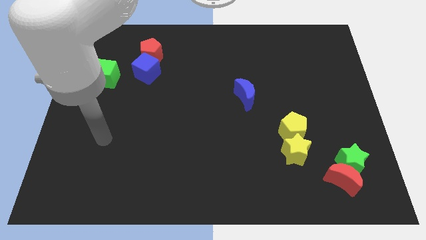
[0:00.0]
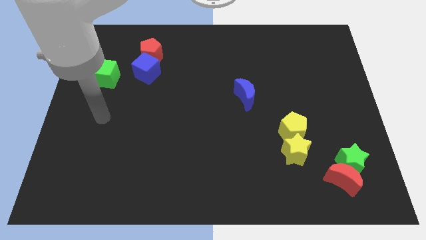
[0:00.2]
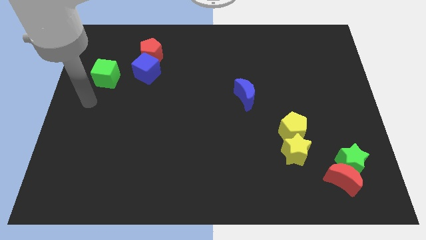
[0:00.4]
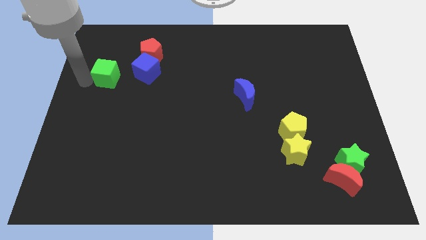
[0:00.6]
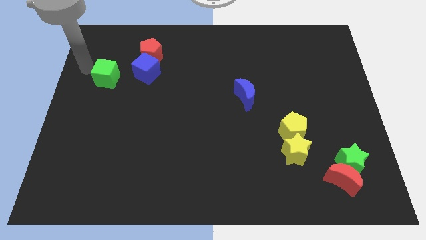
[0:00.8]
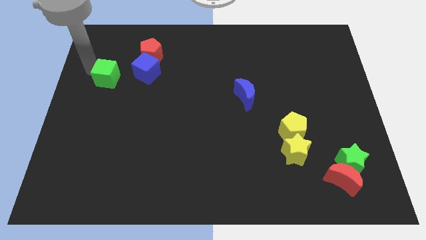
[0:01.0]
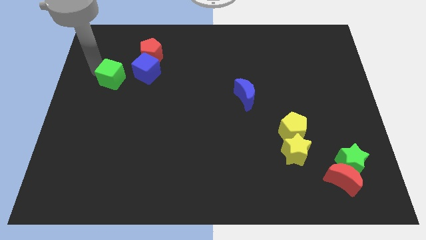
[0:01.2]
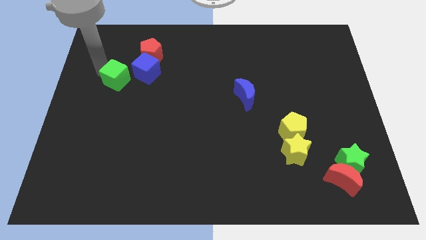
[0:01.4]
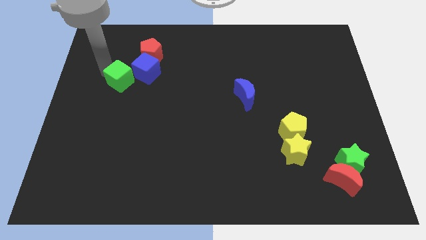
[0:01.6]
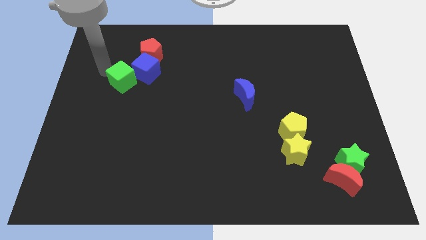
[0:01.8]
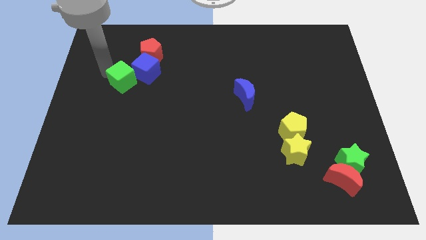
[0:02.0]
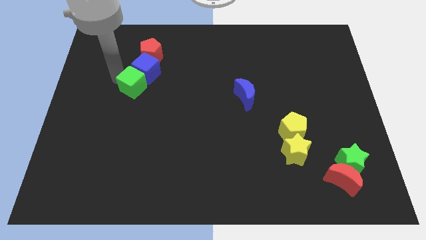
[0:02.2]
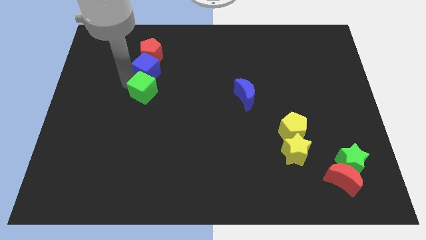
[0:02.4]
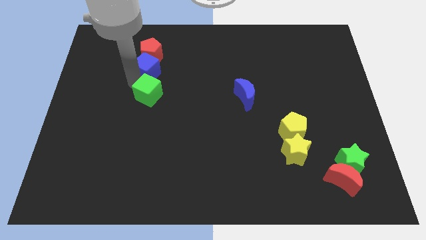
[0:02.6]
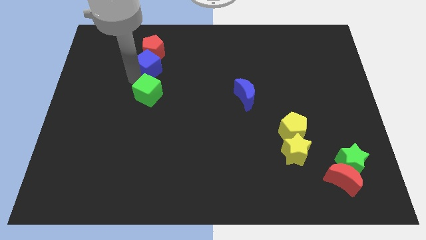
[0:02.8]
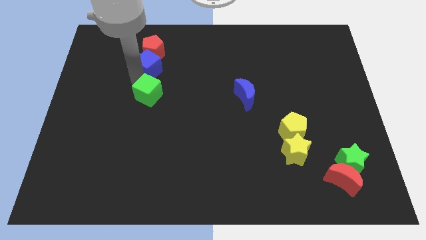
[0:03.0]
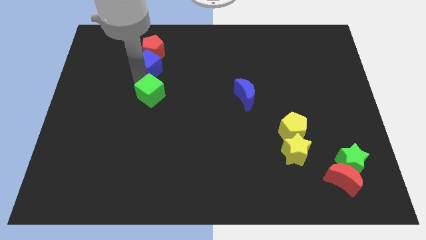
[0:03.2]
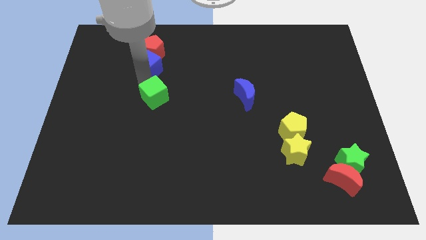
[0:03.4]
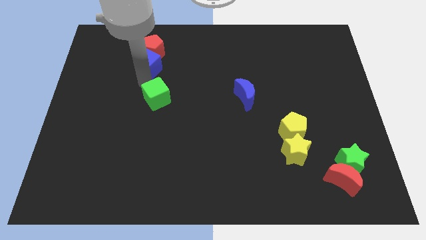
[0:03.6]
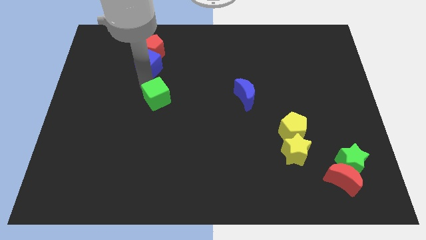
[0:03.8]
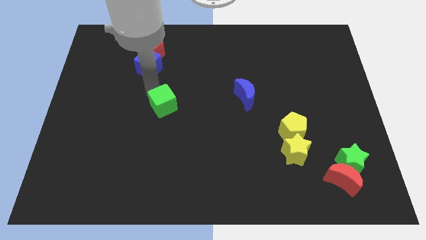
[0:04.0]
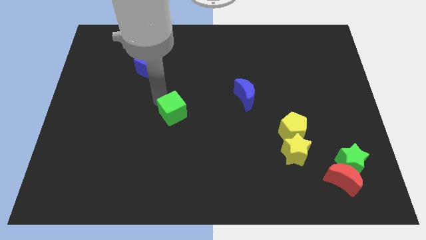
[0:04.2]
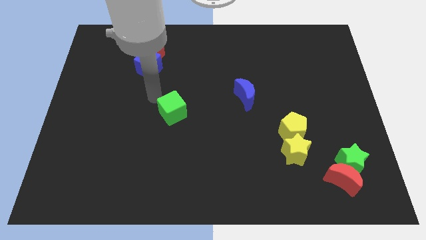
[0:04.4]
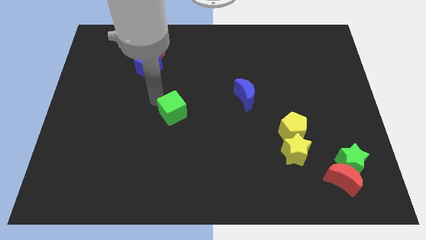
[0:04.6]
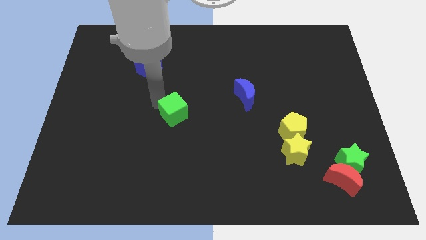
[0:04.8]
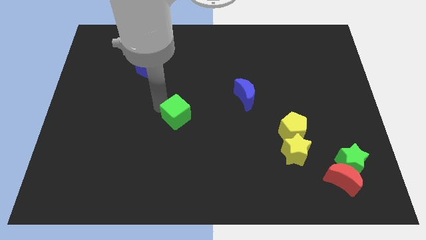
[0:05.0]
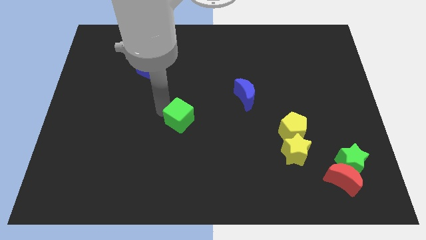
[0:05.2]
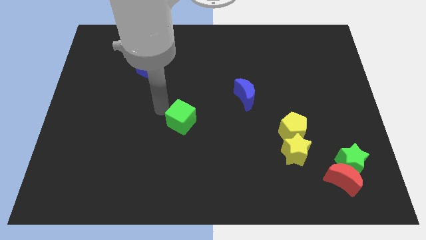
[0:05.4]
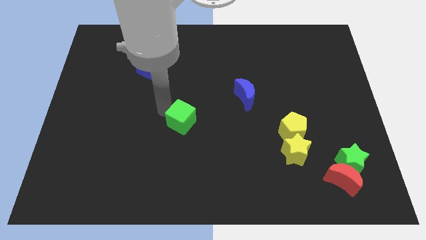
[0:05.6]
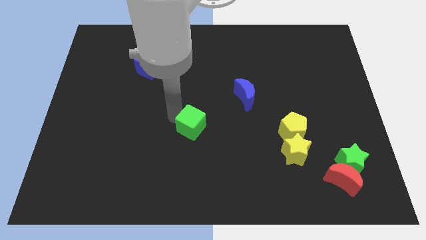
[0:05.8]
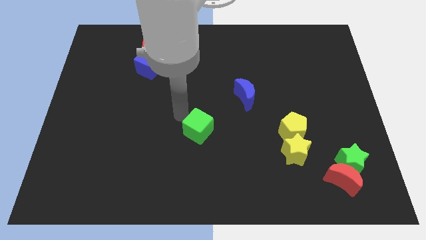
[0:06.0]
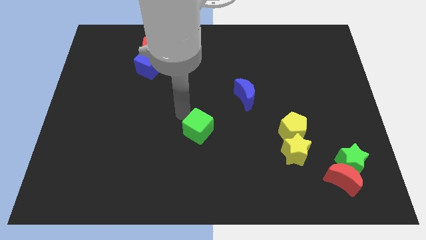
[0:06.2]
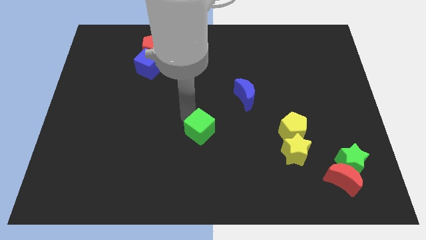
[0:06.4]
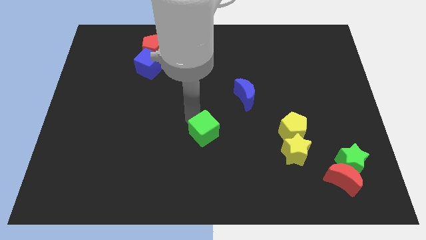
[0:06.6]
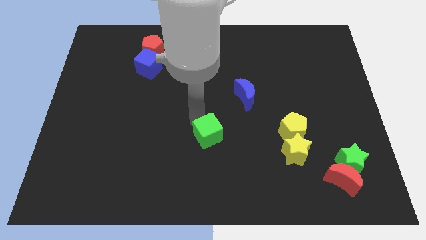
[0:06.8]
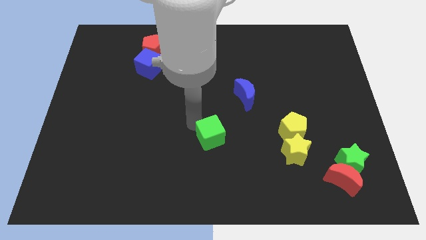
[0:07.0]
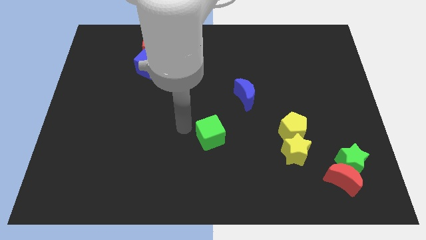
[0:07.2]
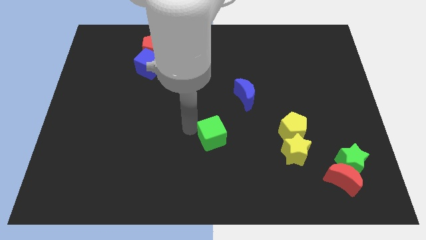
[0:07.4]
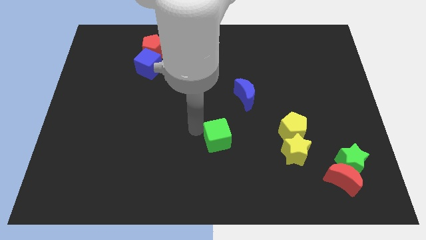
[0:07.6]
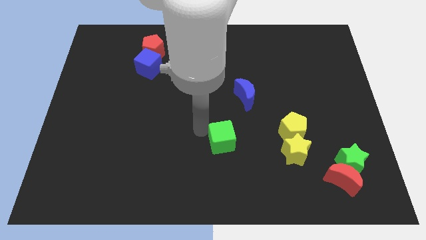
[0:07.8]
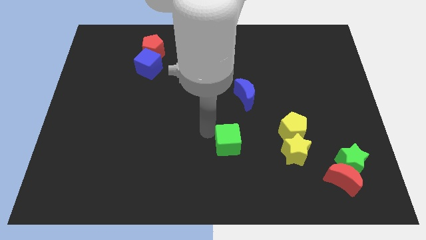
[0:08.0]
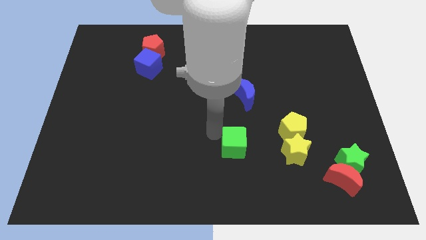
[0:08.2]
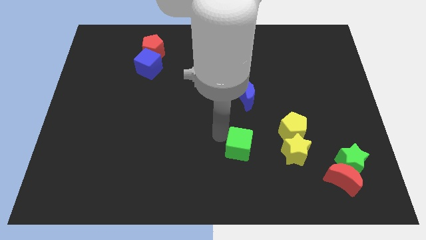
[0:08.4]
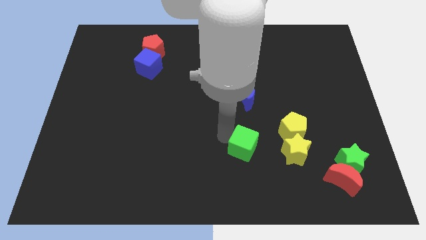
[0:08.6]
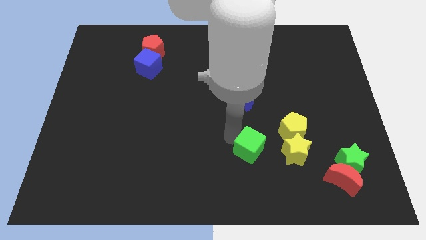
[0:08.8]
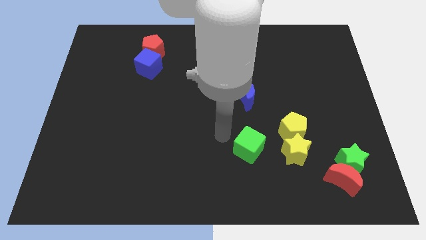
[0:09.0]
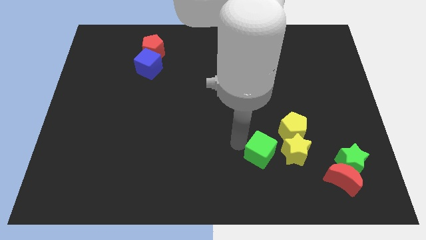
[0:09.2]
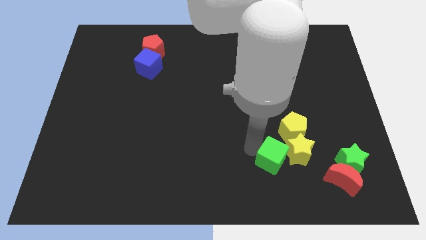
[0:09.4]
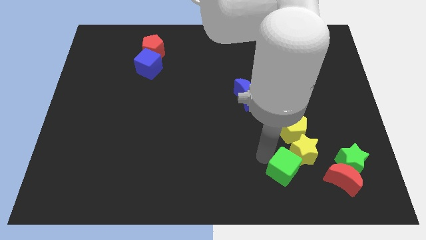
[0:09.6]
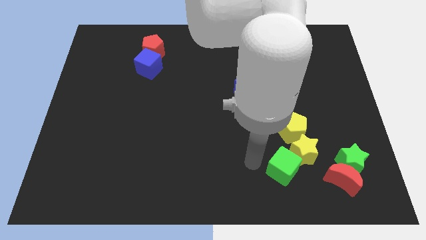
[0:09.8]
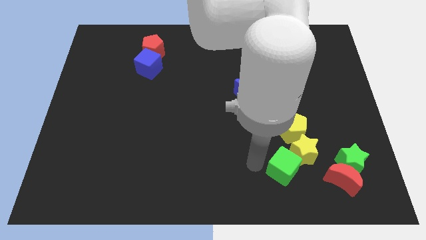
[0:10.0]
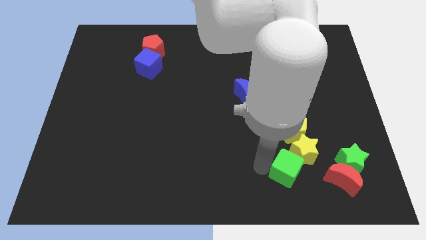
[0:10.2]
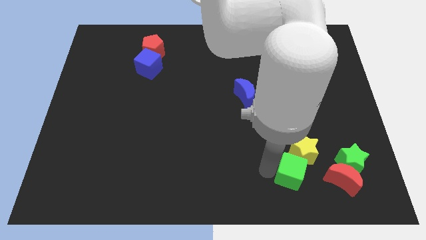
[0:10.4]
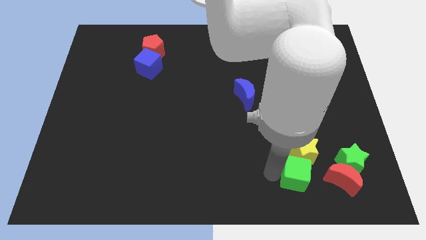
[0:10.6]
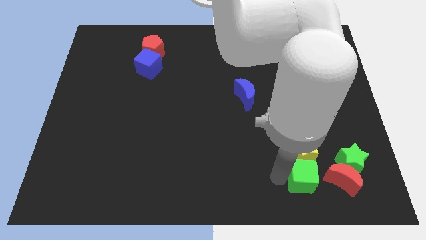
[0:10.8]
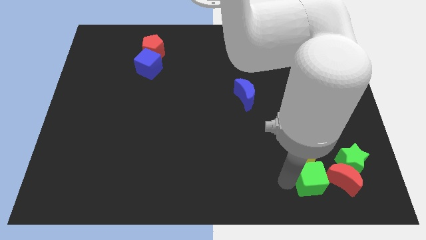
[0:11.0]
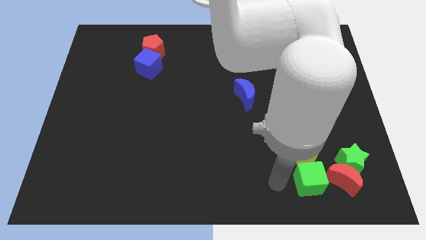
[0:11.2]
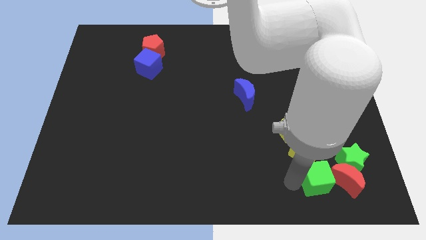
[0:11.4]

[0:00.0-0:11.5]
move the green cube close to the red moon

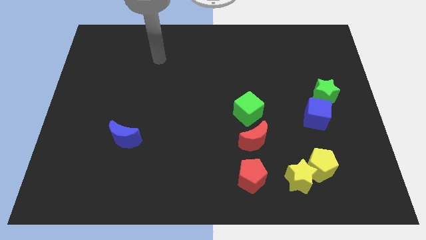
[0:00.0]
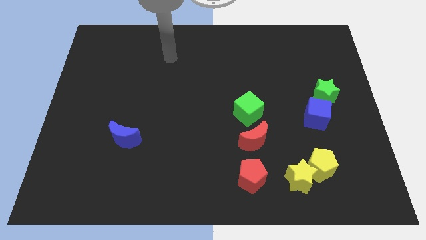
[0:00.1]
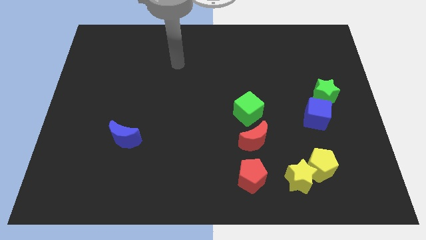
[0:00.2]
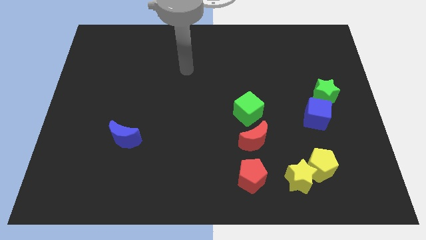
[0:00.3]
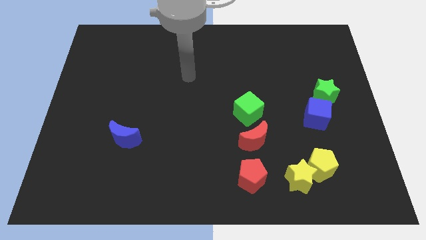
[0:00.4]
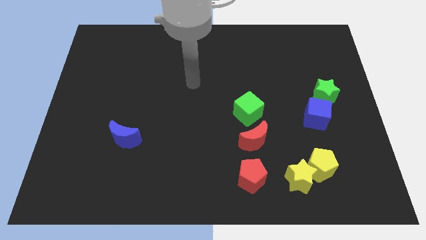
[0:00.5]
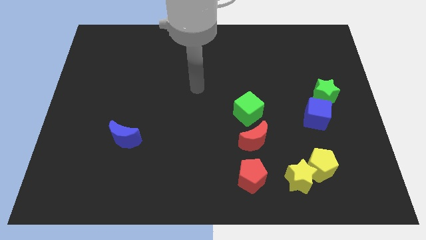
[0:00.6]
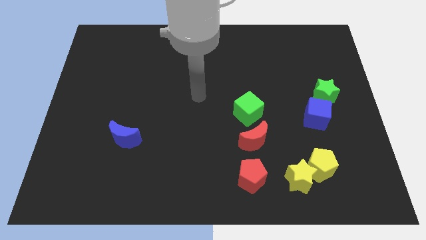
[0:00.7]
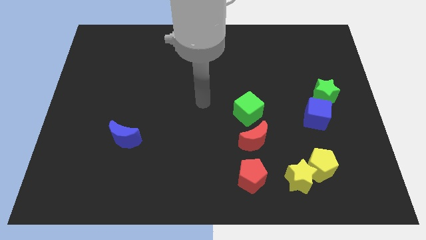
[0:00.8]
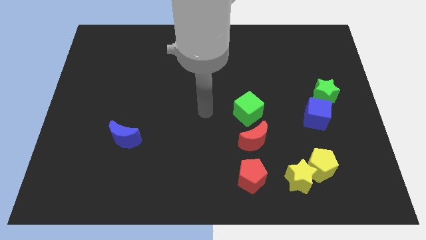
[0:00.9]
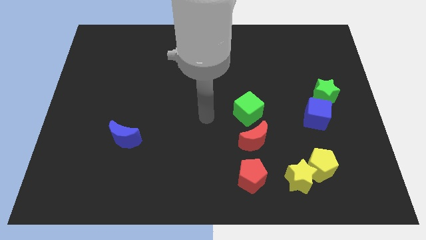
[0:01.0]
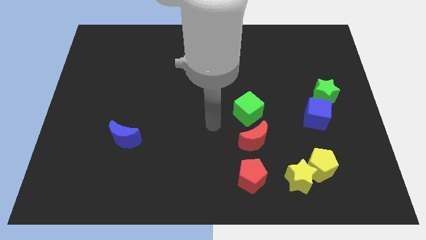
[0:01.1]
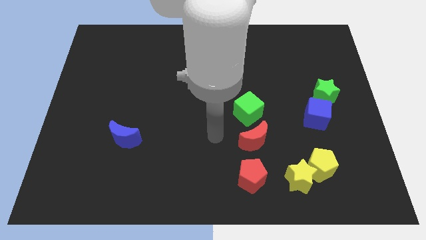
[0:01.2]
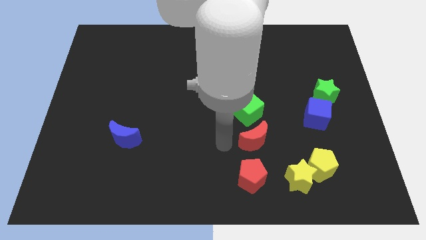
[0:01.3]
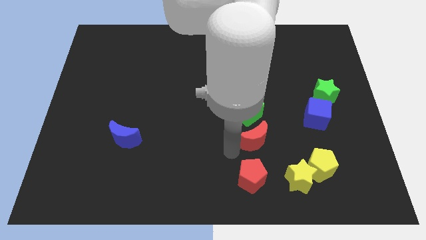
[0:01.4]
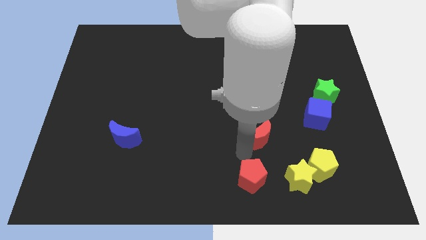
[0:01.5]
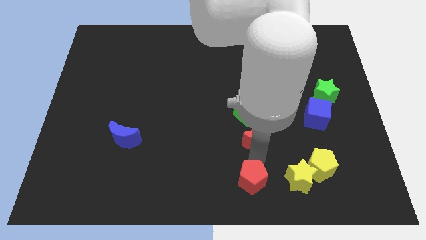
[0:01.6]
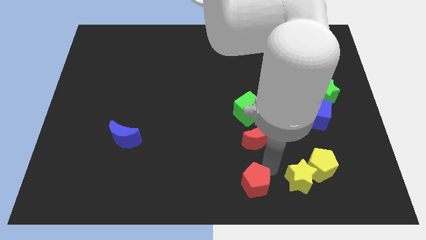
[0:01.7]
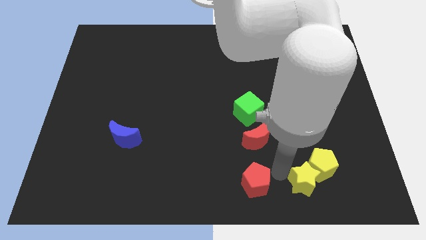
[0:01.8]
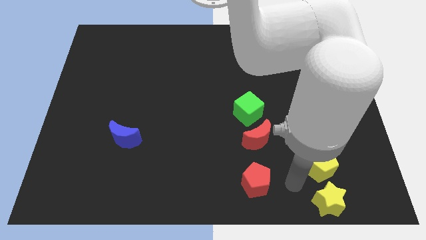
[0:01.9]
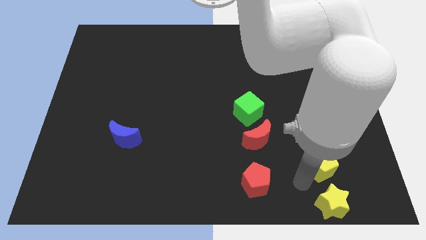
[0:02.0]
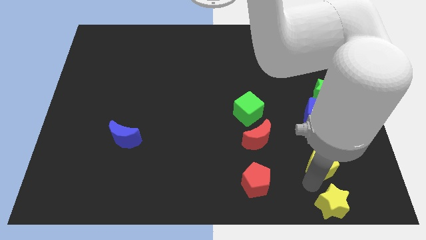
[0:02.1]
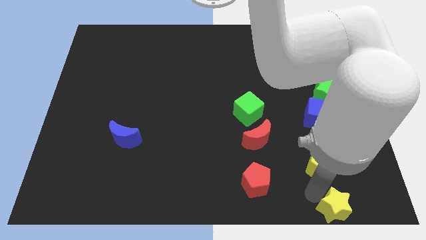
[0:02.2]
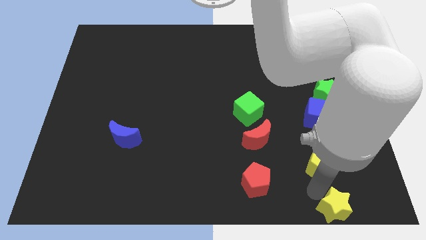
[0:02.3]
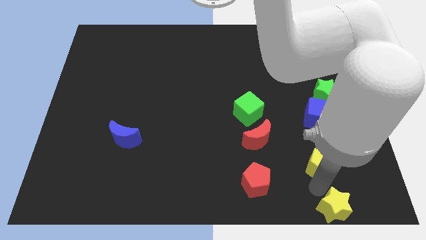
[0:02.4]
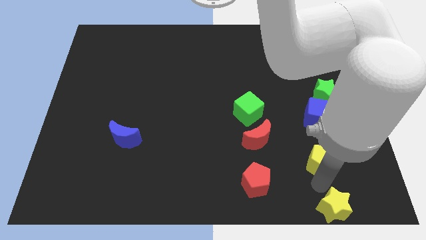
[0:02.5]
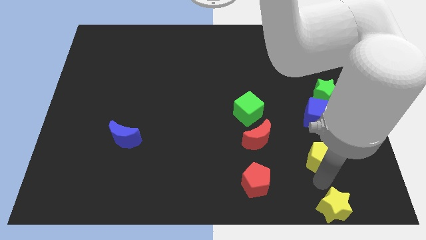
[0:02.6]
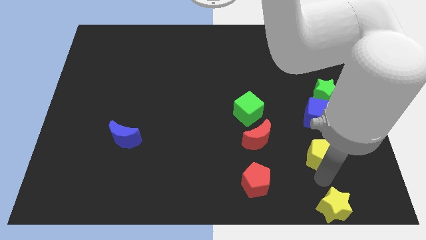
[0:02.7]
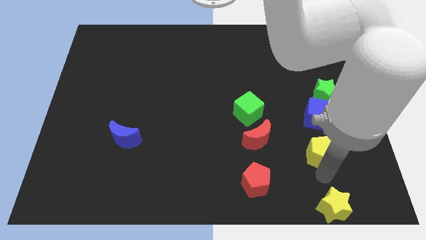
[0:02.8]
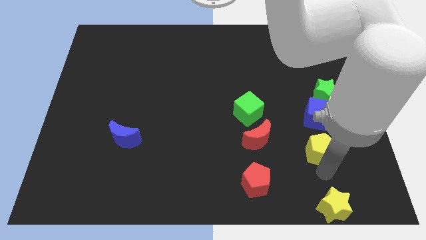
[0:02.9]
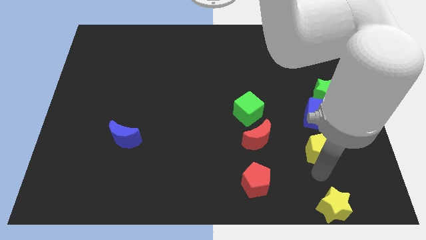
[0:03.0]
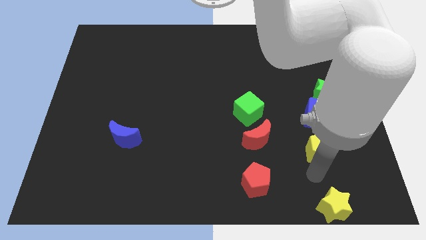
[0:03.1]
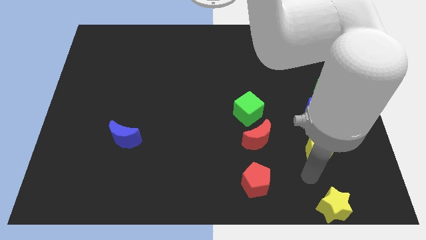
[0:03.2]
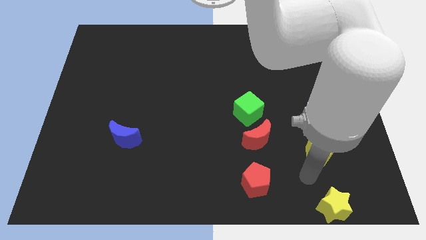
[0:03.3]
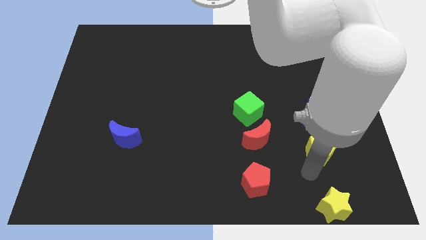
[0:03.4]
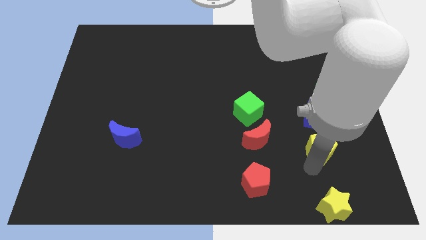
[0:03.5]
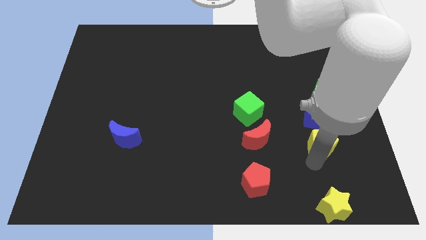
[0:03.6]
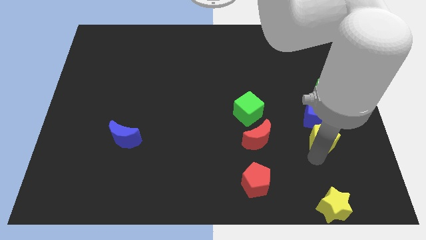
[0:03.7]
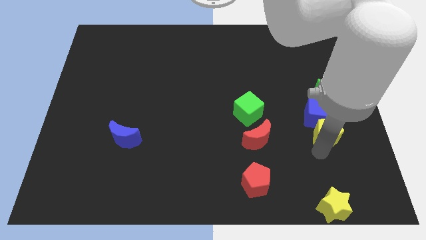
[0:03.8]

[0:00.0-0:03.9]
put the yellow pentagon next to the blue cube
